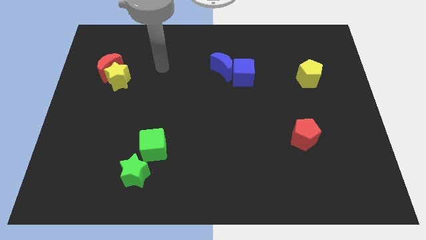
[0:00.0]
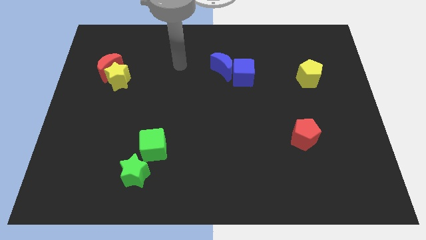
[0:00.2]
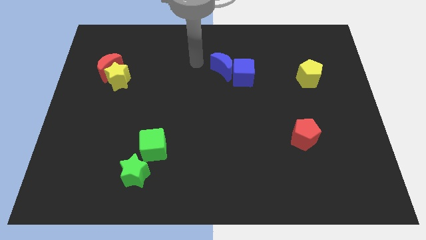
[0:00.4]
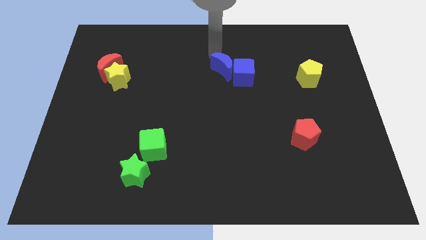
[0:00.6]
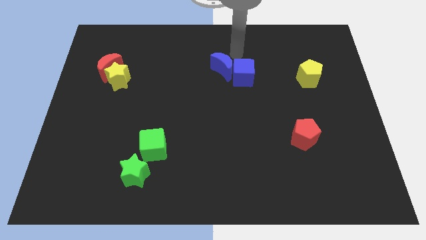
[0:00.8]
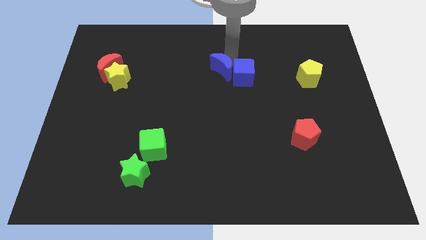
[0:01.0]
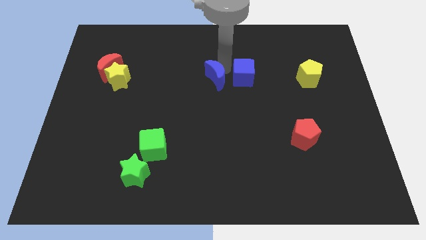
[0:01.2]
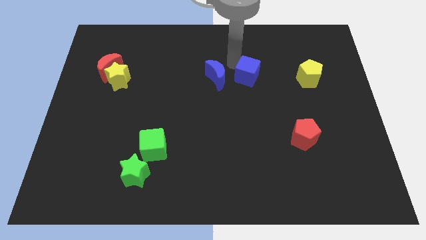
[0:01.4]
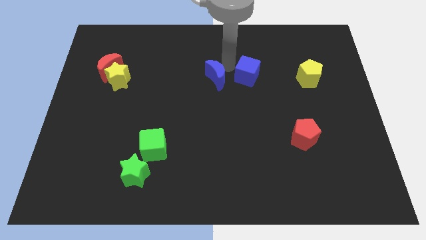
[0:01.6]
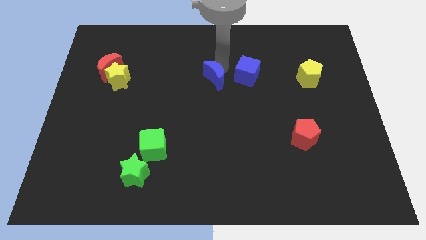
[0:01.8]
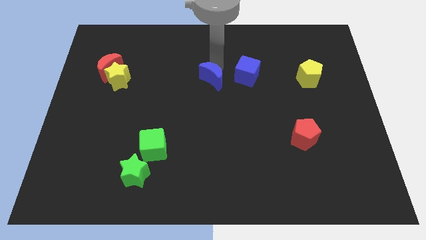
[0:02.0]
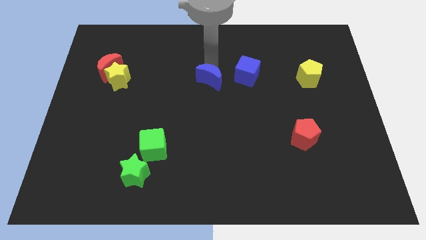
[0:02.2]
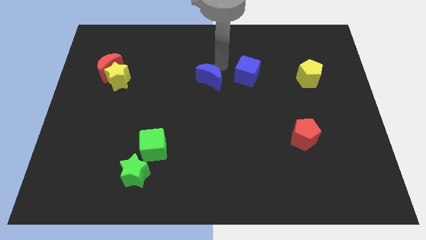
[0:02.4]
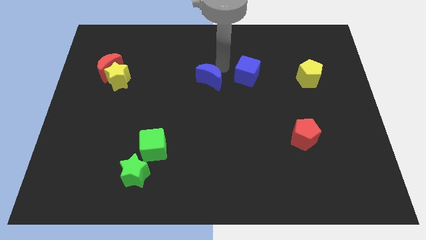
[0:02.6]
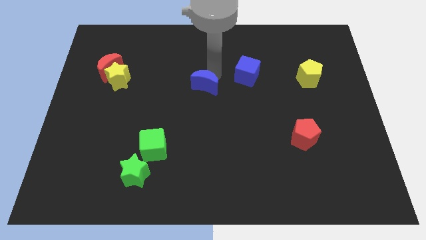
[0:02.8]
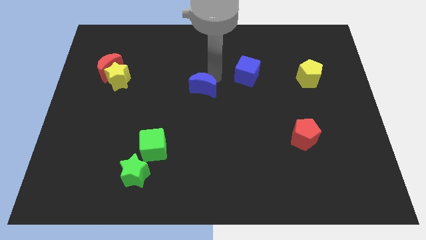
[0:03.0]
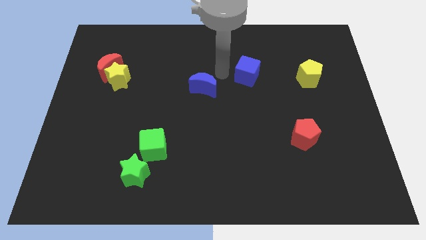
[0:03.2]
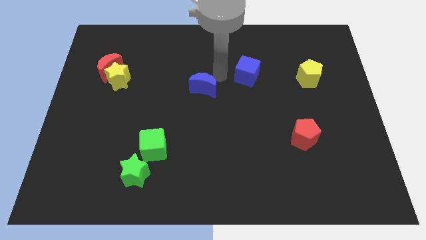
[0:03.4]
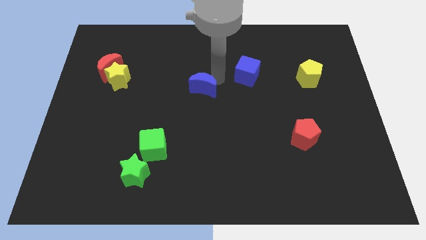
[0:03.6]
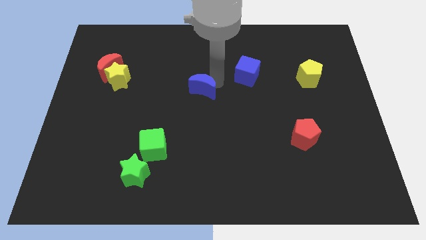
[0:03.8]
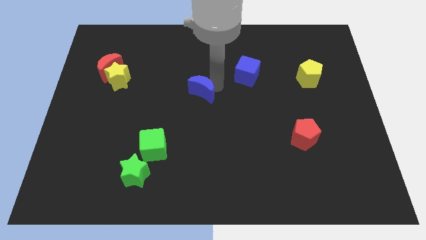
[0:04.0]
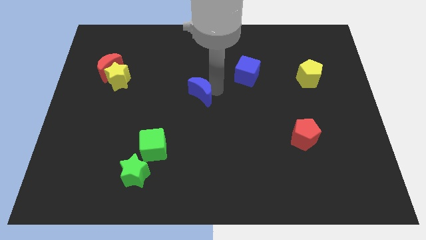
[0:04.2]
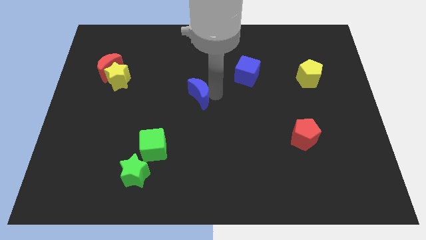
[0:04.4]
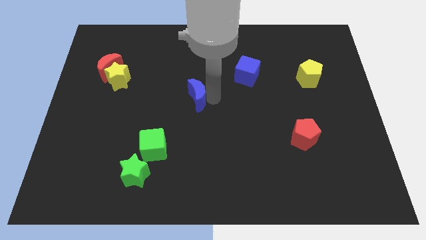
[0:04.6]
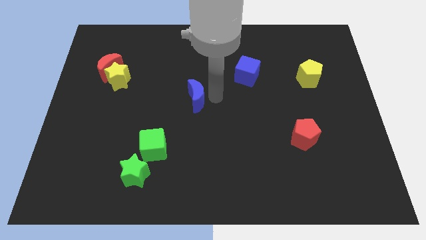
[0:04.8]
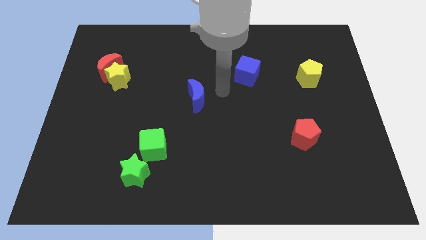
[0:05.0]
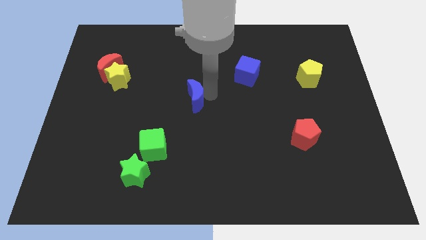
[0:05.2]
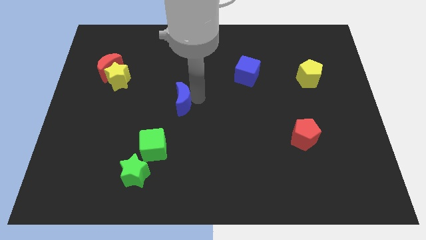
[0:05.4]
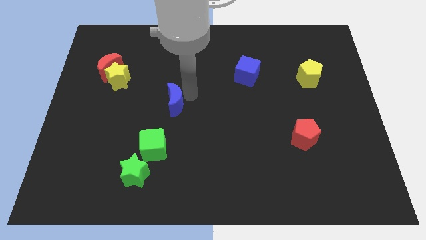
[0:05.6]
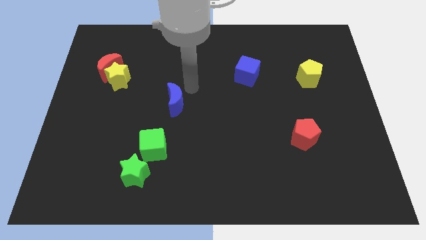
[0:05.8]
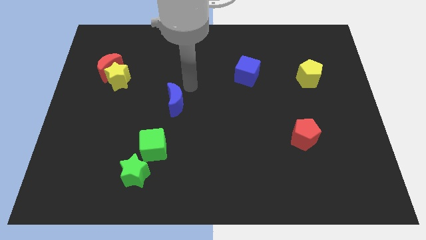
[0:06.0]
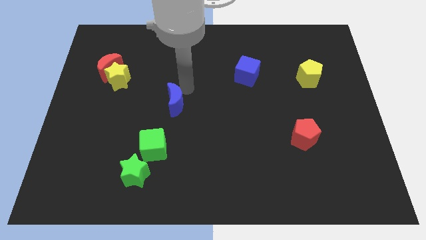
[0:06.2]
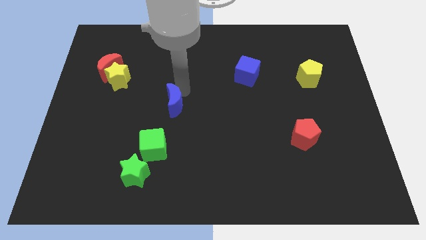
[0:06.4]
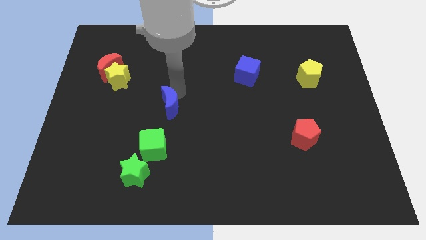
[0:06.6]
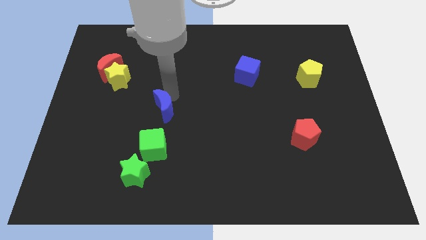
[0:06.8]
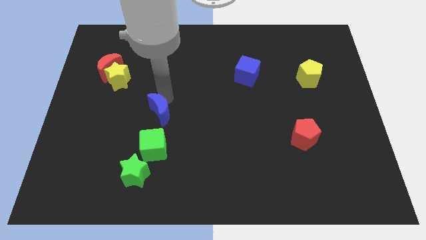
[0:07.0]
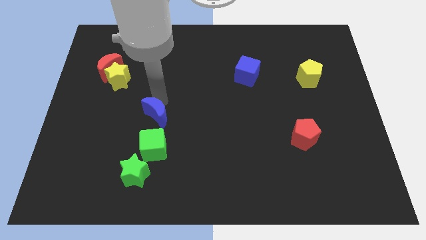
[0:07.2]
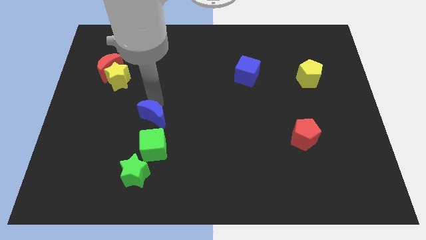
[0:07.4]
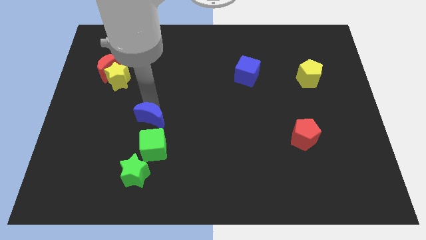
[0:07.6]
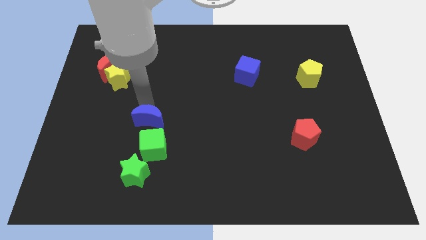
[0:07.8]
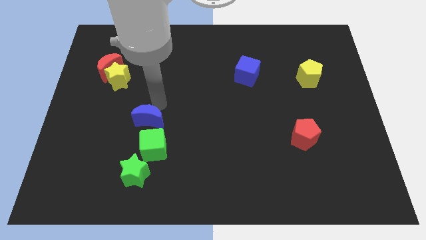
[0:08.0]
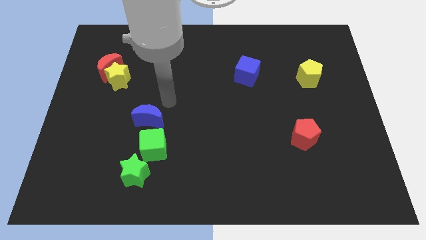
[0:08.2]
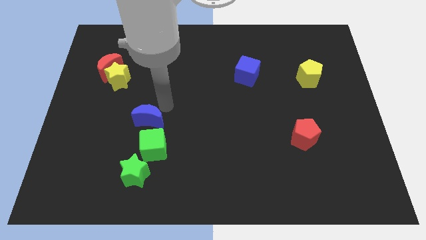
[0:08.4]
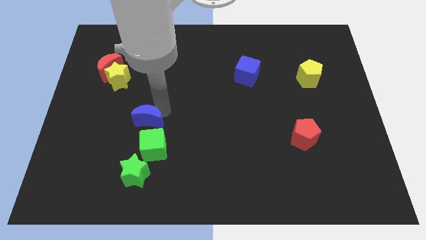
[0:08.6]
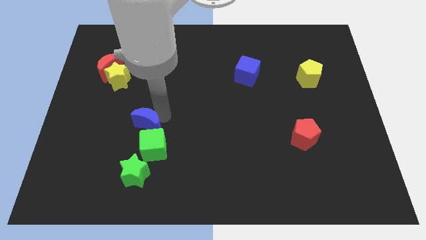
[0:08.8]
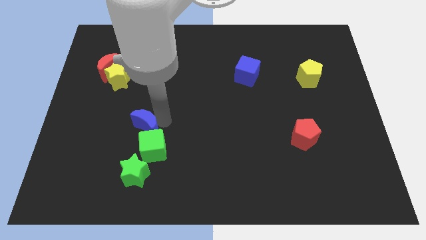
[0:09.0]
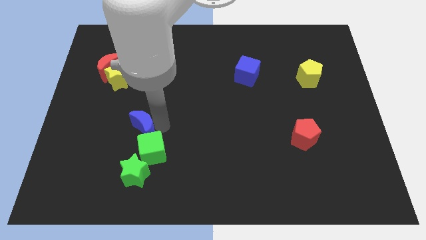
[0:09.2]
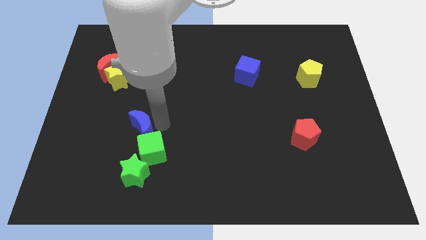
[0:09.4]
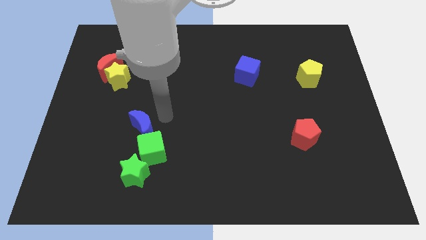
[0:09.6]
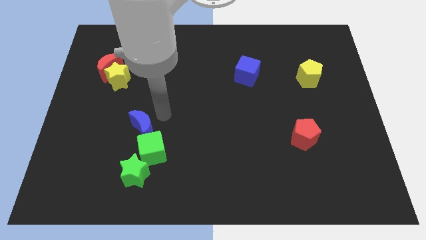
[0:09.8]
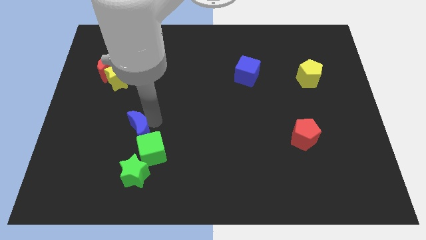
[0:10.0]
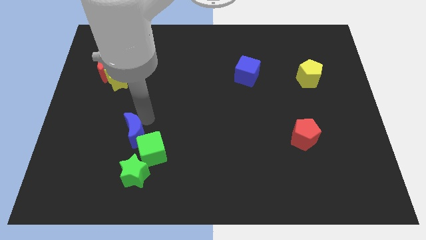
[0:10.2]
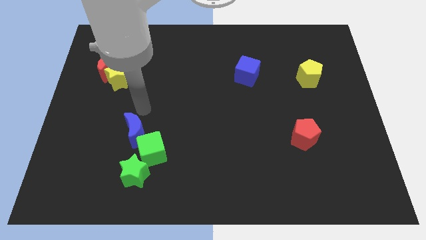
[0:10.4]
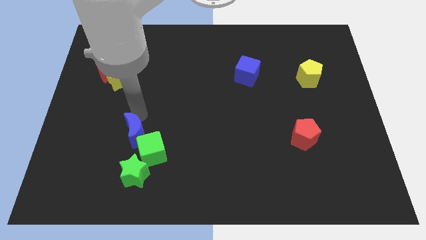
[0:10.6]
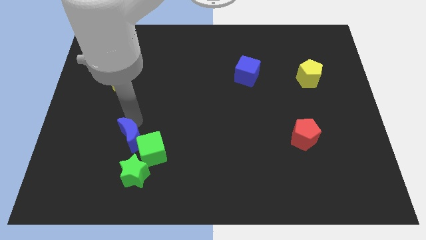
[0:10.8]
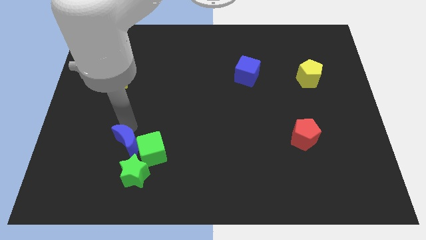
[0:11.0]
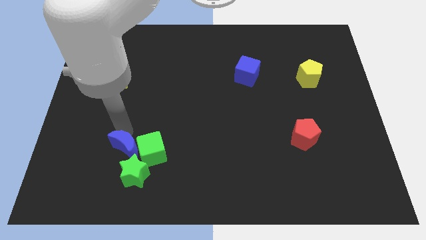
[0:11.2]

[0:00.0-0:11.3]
slide the blue moon diagonally down and to the left of the green cube

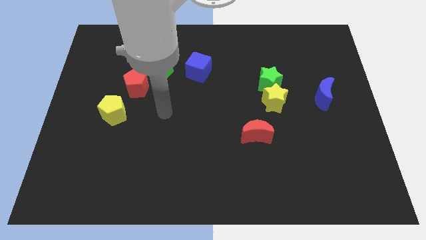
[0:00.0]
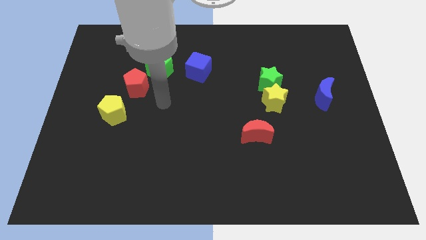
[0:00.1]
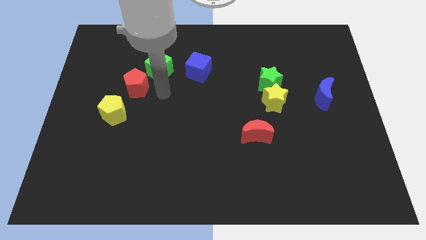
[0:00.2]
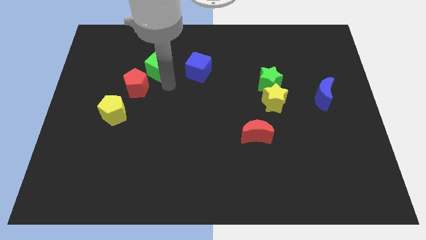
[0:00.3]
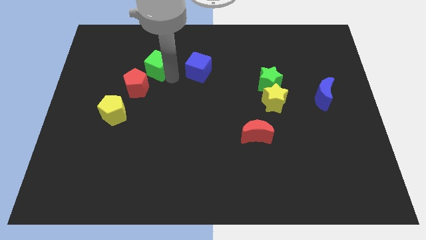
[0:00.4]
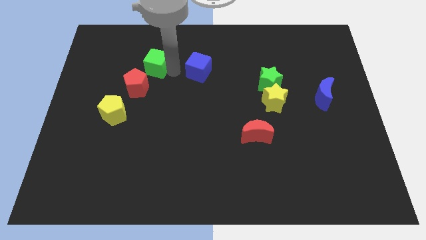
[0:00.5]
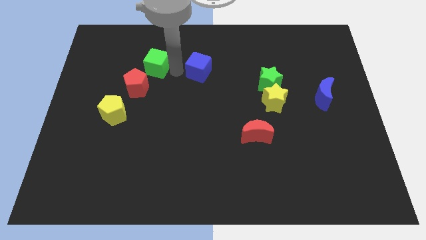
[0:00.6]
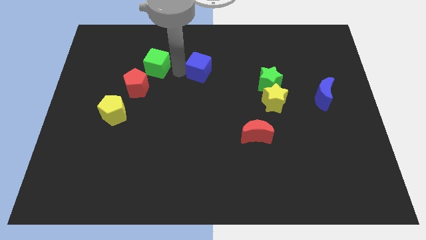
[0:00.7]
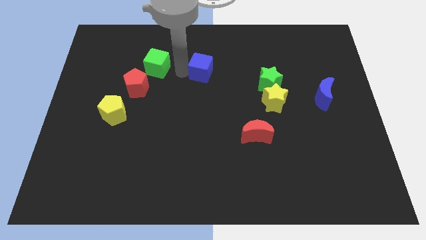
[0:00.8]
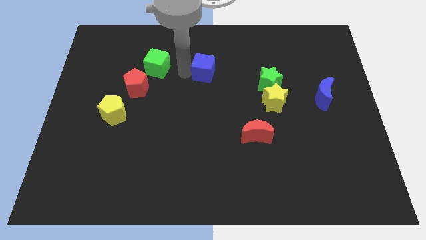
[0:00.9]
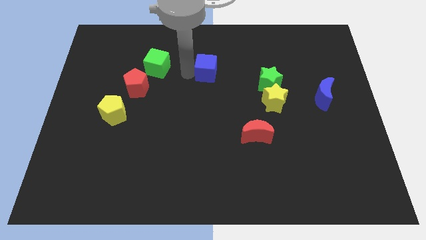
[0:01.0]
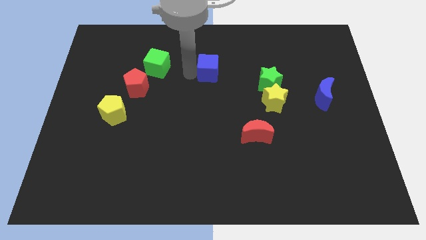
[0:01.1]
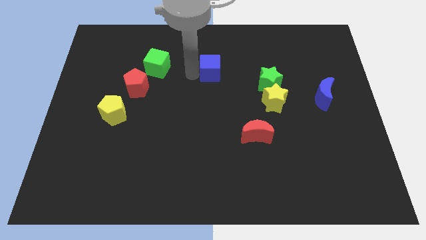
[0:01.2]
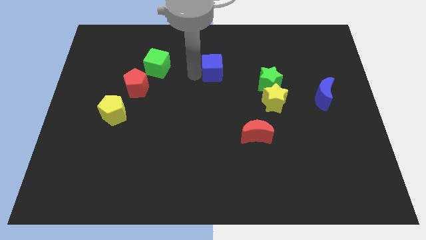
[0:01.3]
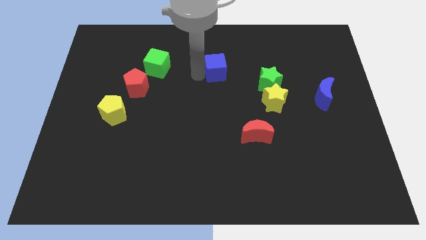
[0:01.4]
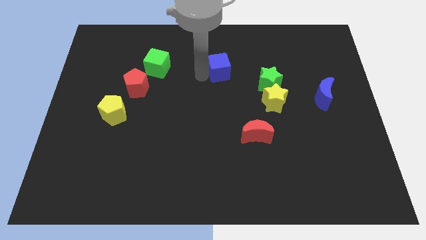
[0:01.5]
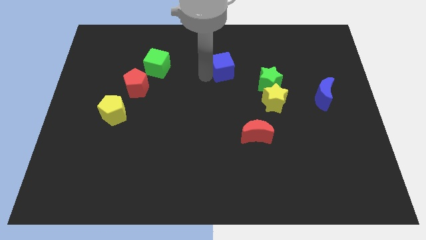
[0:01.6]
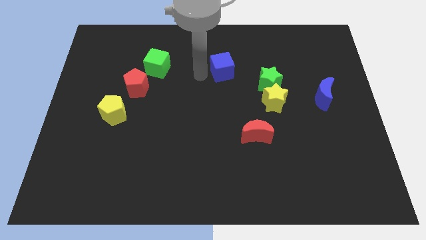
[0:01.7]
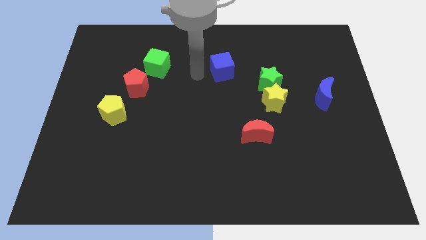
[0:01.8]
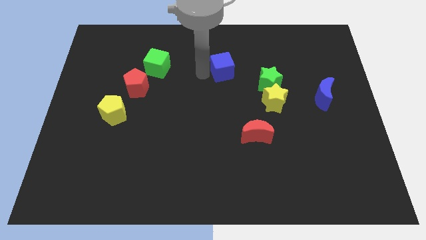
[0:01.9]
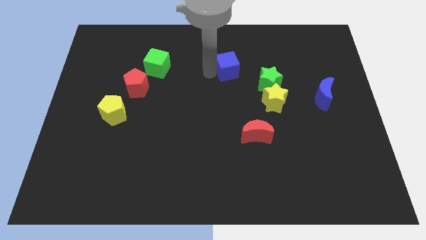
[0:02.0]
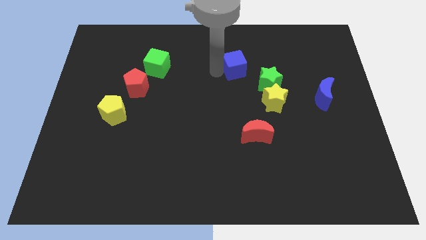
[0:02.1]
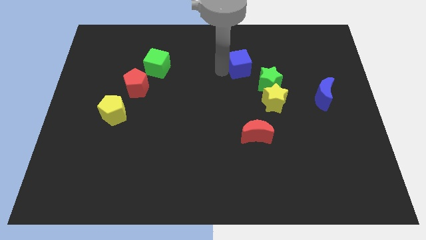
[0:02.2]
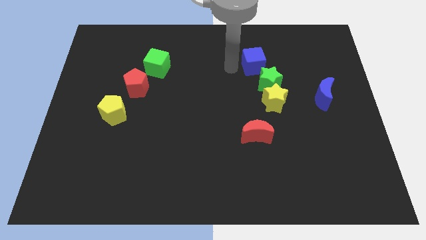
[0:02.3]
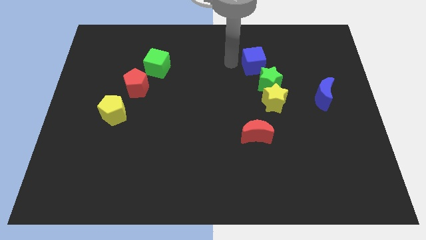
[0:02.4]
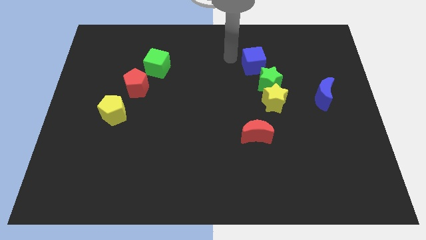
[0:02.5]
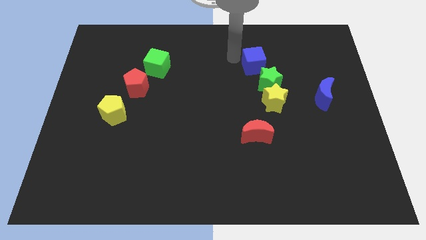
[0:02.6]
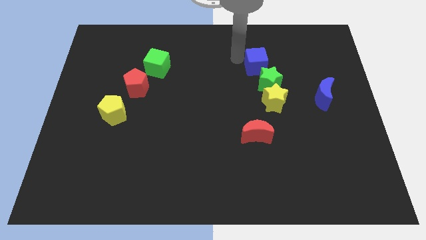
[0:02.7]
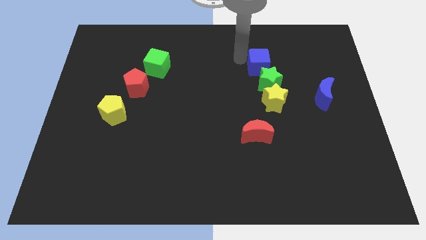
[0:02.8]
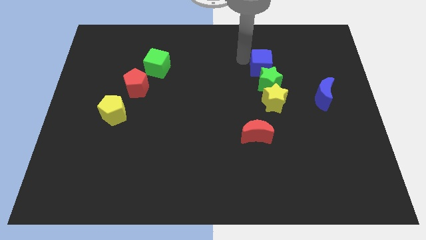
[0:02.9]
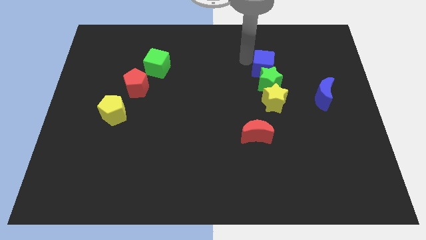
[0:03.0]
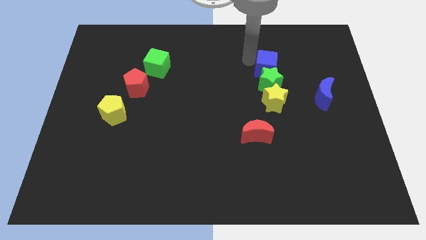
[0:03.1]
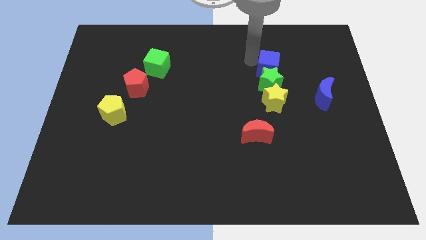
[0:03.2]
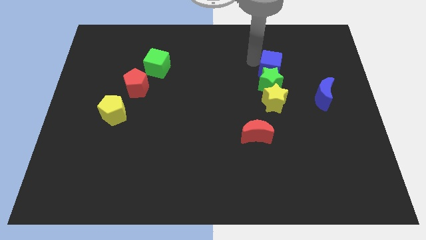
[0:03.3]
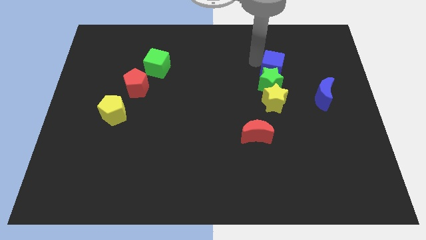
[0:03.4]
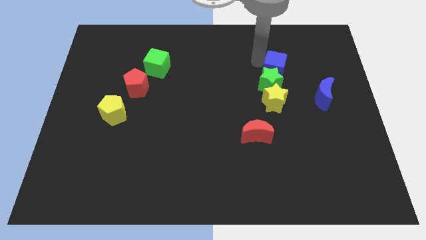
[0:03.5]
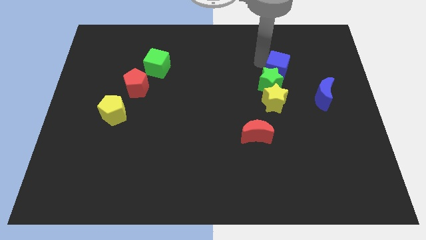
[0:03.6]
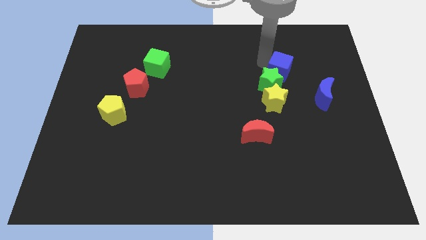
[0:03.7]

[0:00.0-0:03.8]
put the blue cube diagonally up and to the left of the blue moon
